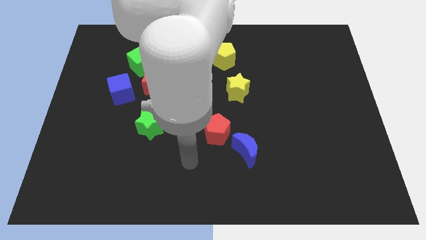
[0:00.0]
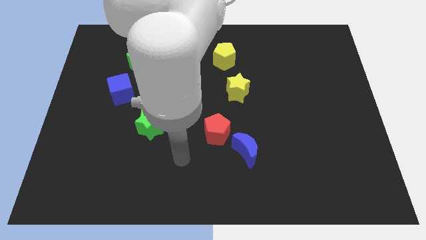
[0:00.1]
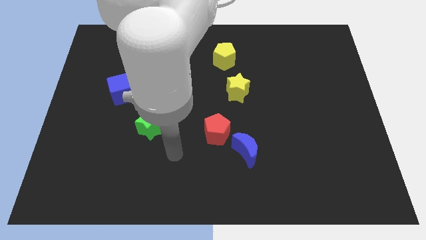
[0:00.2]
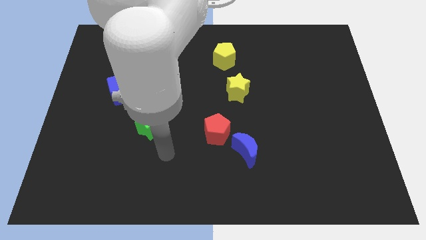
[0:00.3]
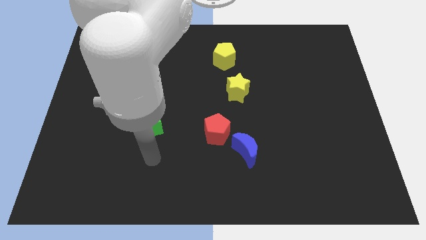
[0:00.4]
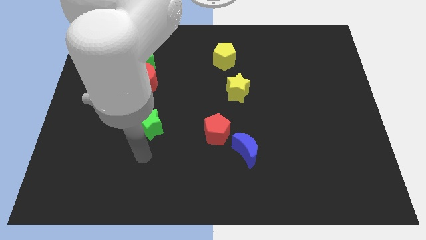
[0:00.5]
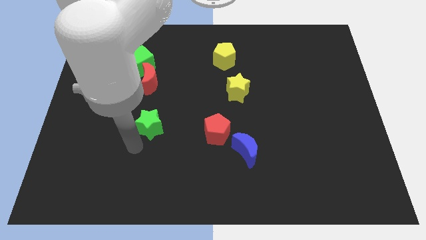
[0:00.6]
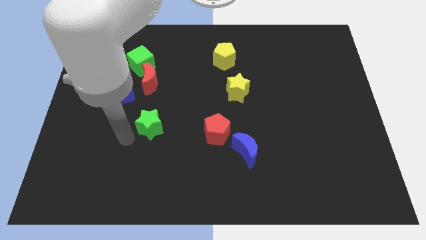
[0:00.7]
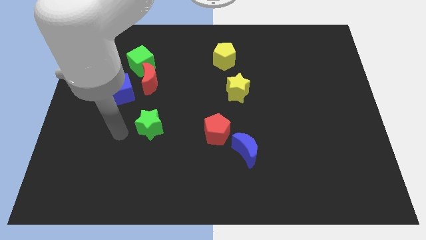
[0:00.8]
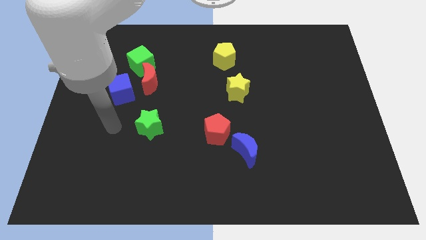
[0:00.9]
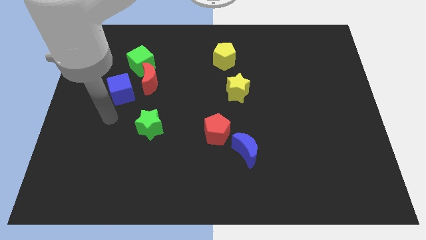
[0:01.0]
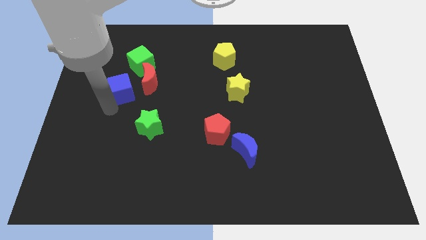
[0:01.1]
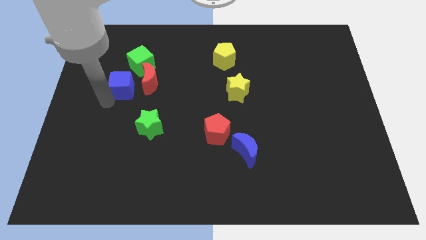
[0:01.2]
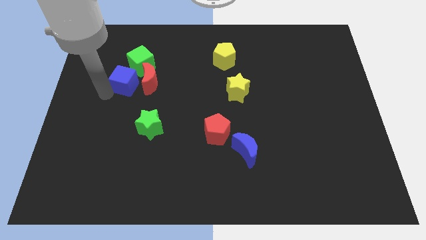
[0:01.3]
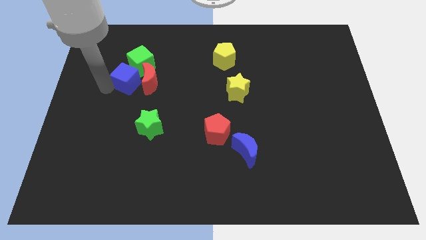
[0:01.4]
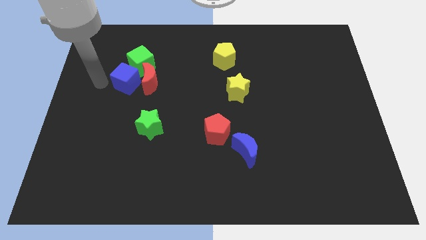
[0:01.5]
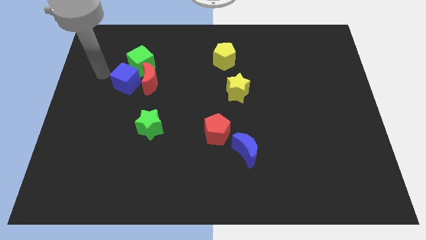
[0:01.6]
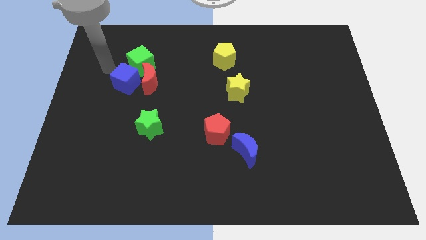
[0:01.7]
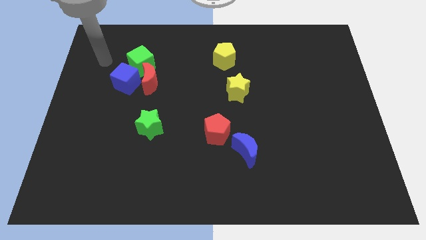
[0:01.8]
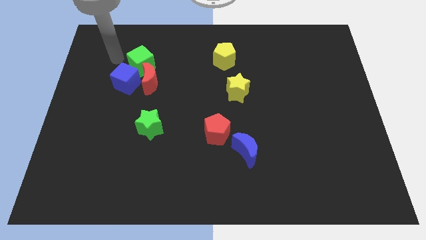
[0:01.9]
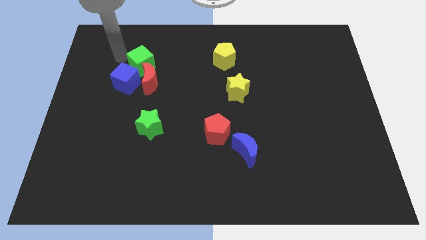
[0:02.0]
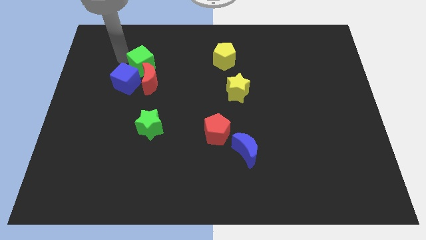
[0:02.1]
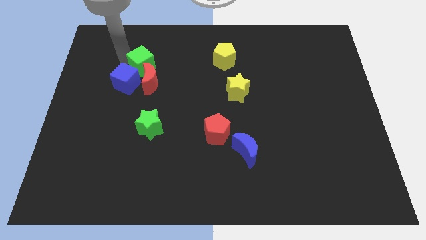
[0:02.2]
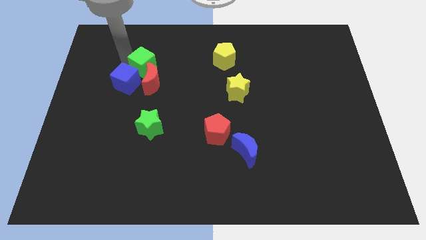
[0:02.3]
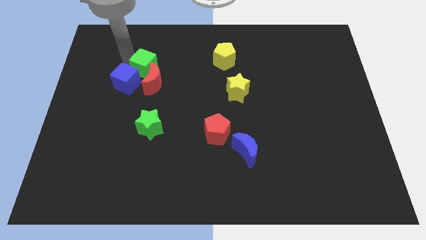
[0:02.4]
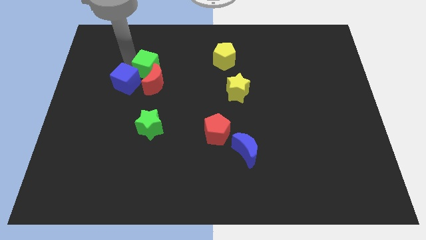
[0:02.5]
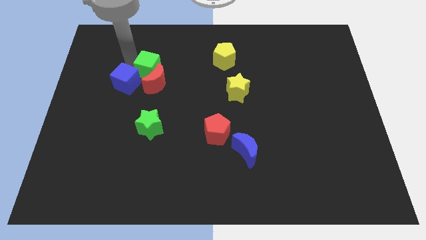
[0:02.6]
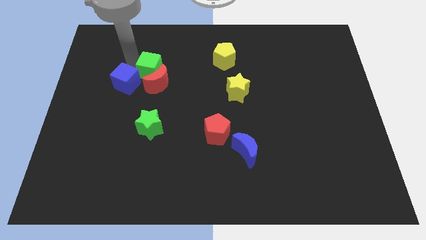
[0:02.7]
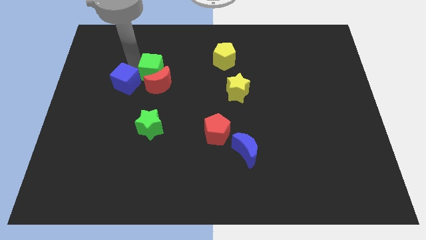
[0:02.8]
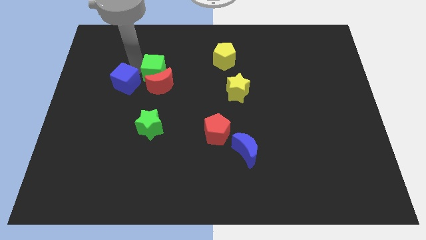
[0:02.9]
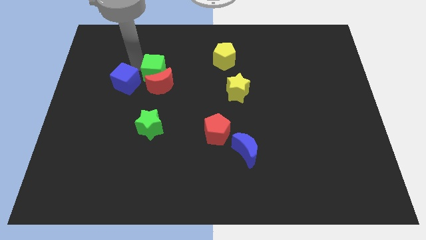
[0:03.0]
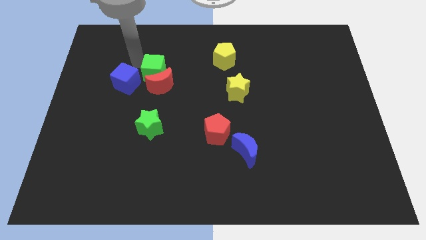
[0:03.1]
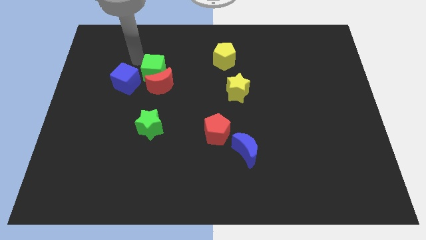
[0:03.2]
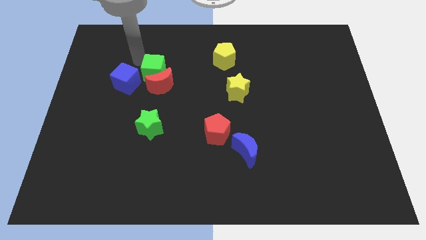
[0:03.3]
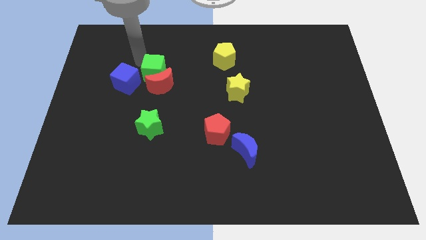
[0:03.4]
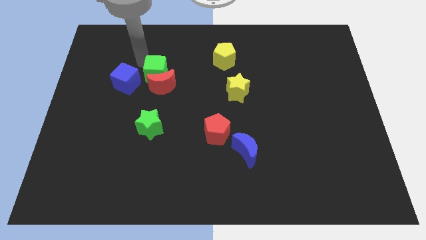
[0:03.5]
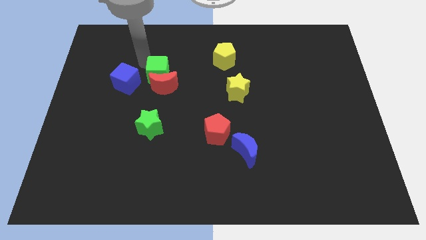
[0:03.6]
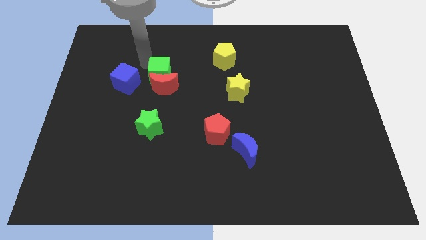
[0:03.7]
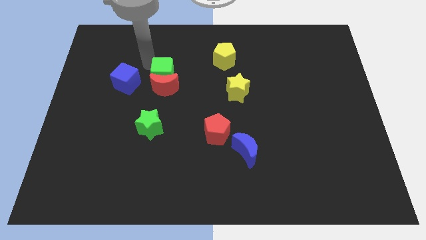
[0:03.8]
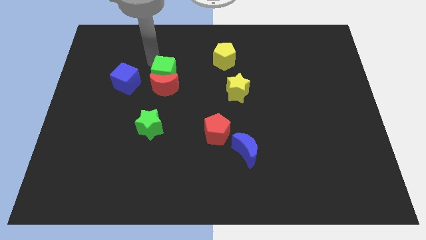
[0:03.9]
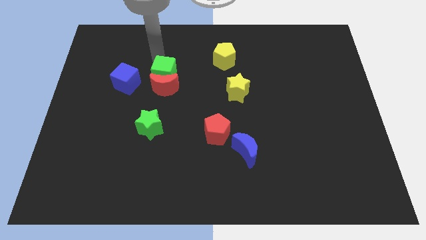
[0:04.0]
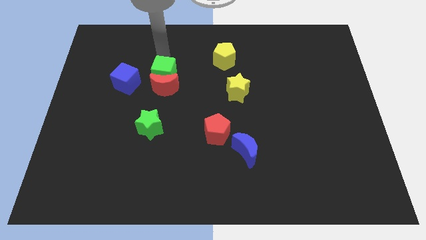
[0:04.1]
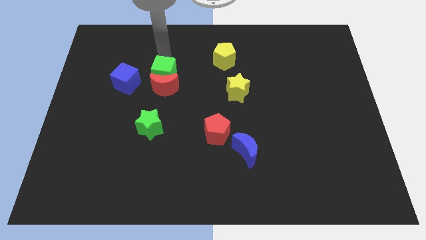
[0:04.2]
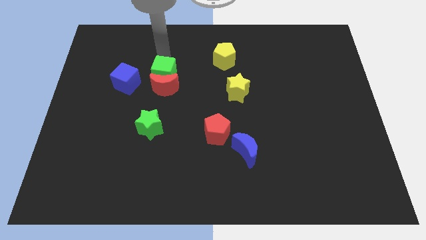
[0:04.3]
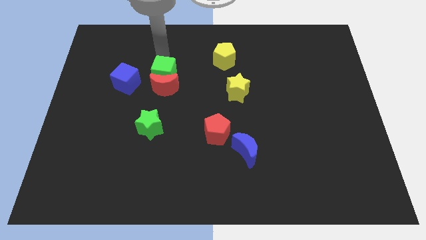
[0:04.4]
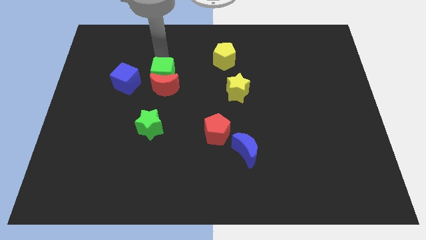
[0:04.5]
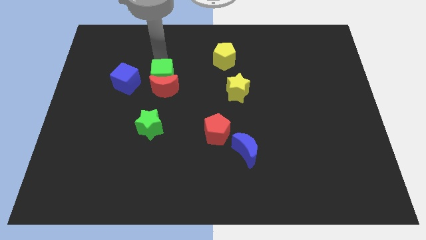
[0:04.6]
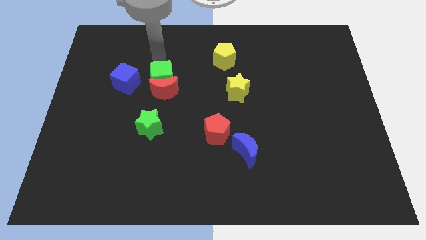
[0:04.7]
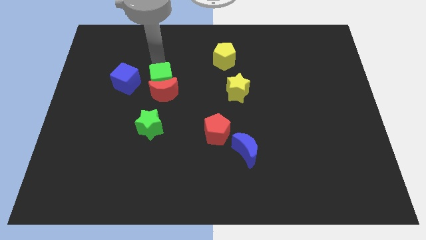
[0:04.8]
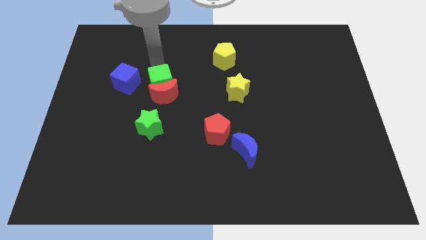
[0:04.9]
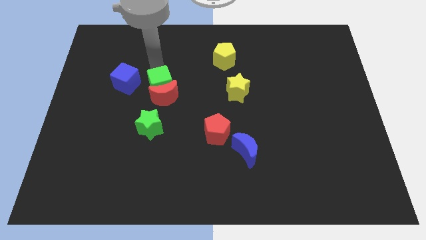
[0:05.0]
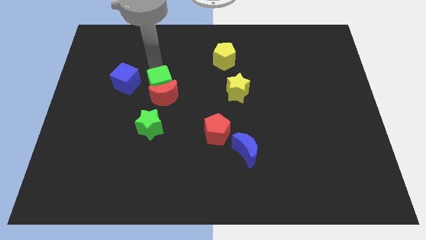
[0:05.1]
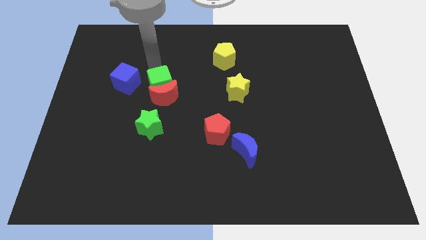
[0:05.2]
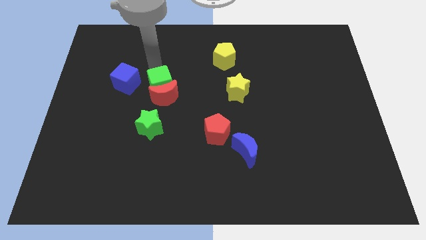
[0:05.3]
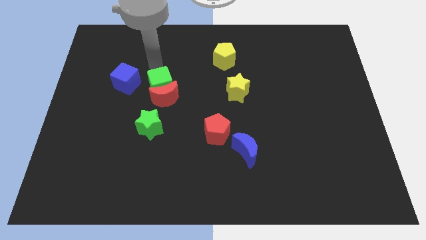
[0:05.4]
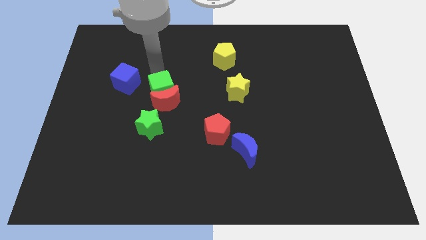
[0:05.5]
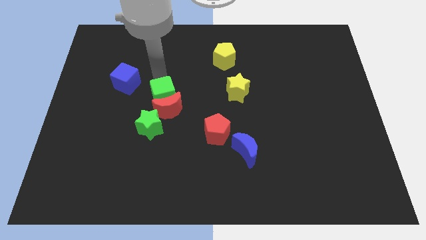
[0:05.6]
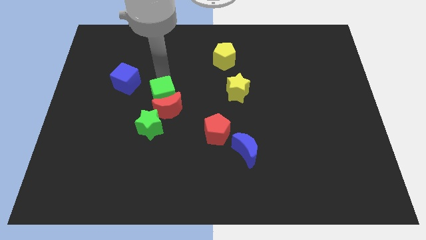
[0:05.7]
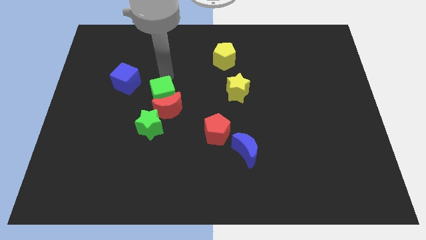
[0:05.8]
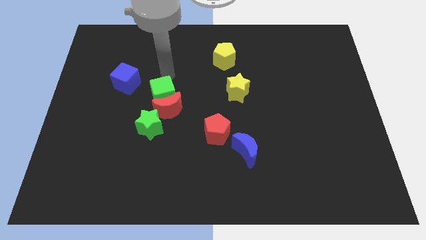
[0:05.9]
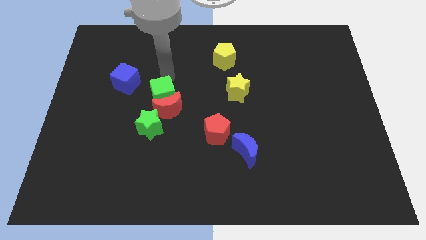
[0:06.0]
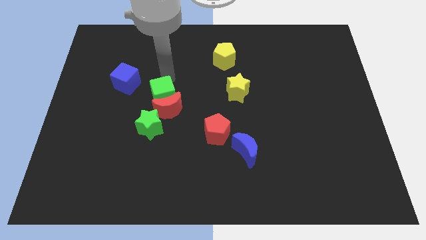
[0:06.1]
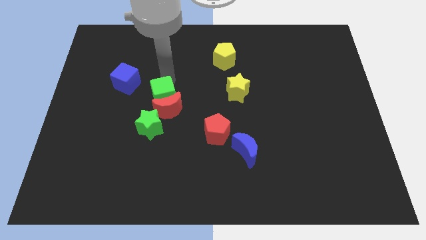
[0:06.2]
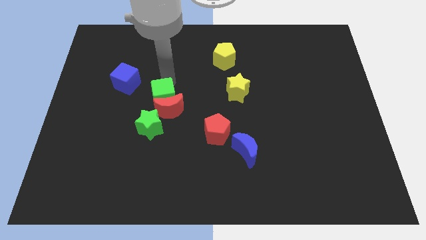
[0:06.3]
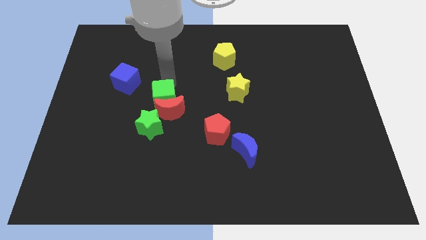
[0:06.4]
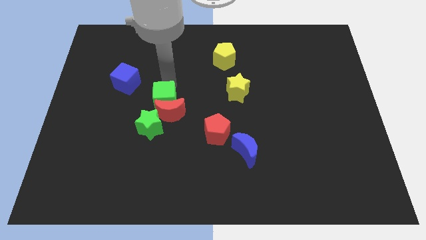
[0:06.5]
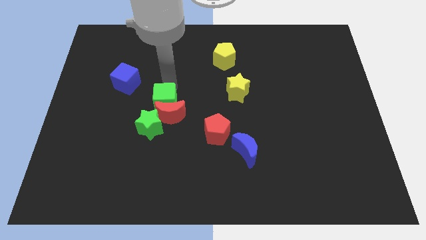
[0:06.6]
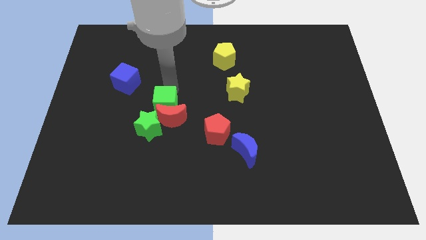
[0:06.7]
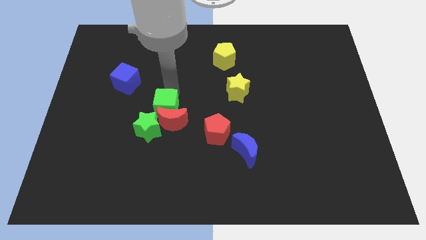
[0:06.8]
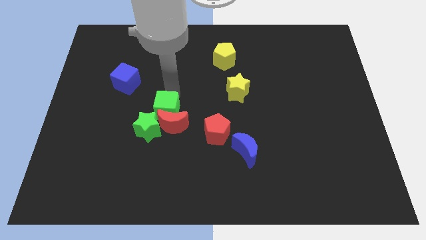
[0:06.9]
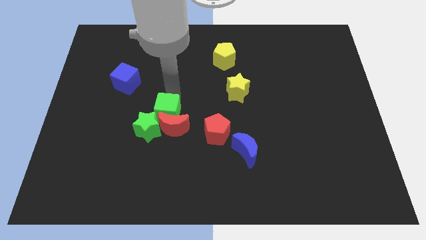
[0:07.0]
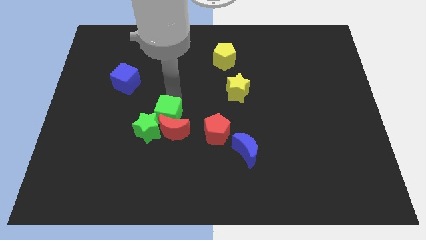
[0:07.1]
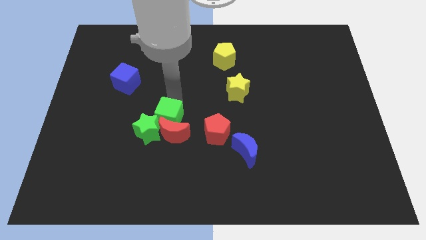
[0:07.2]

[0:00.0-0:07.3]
put the green cube close to the green star

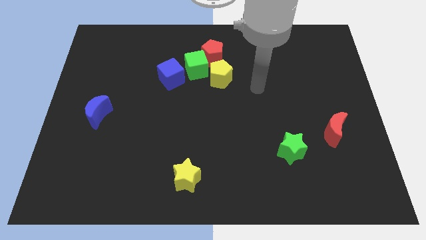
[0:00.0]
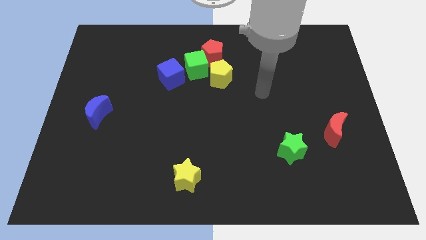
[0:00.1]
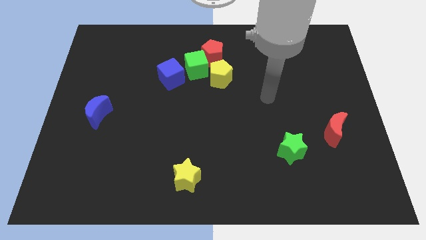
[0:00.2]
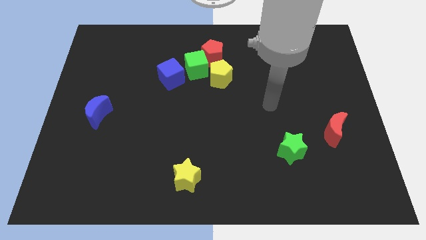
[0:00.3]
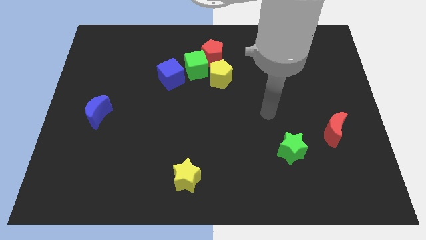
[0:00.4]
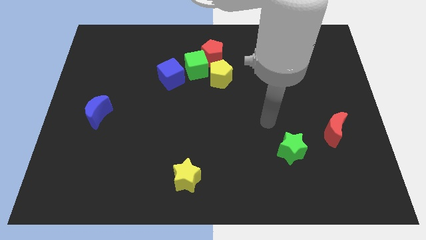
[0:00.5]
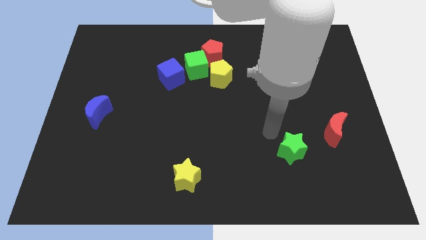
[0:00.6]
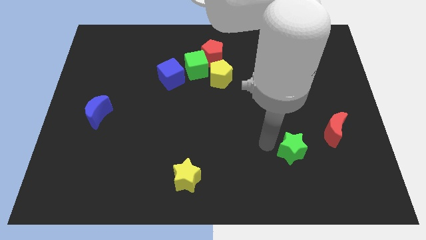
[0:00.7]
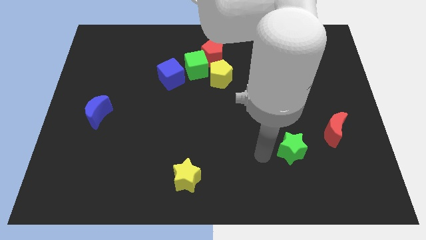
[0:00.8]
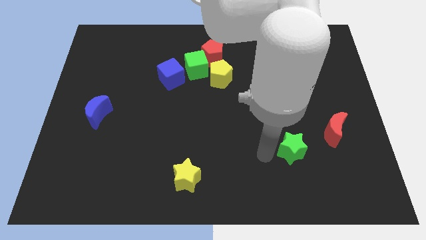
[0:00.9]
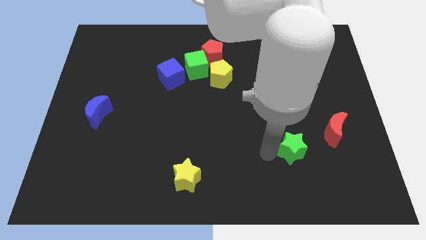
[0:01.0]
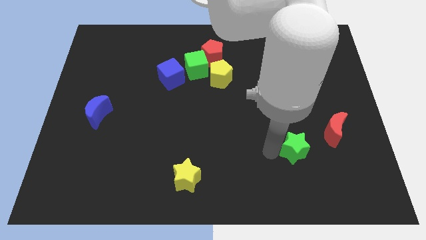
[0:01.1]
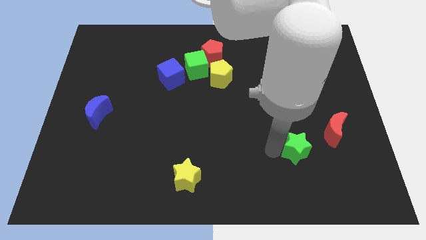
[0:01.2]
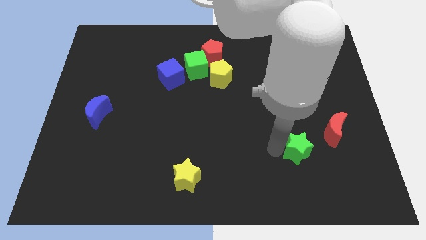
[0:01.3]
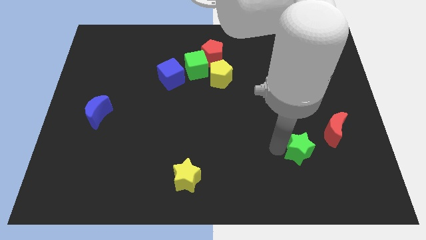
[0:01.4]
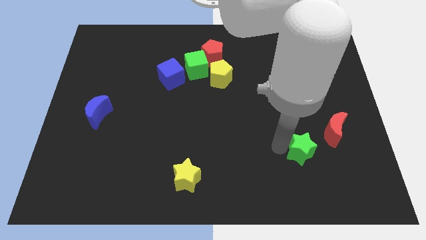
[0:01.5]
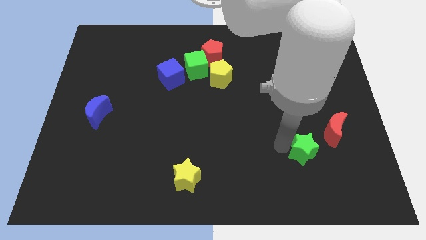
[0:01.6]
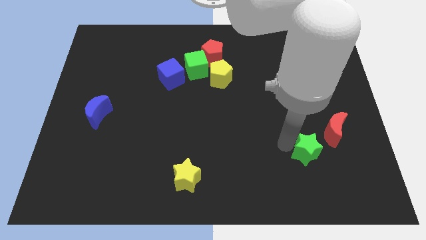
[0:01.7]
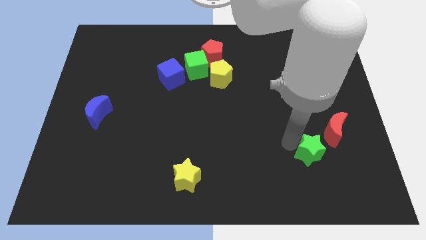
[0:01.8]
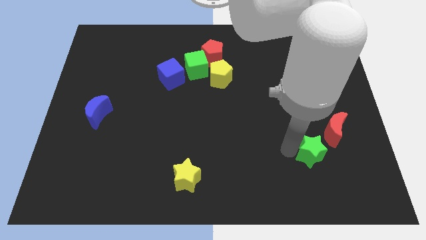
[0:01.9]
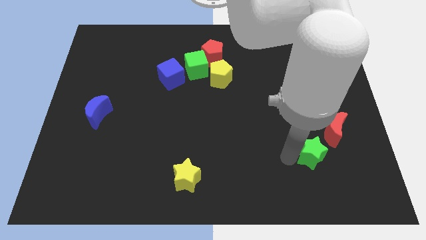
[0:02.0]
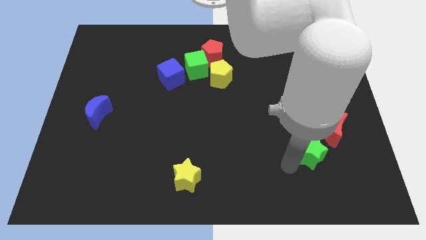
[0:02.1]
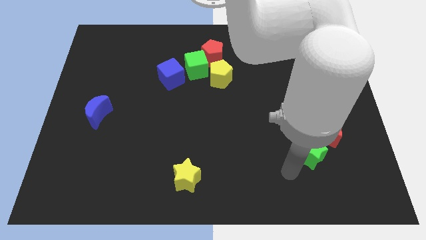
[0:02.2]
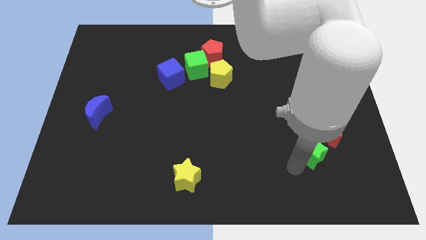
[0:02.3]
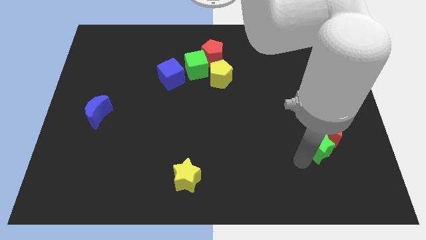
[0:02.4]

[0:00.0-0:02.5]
put the green star next to the red moon
